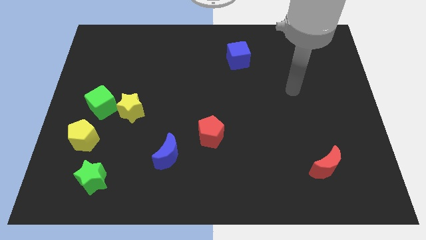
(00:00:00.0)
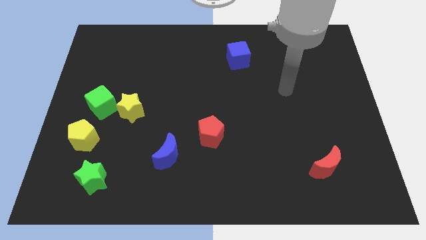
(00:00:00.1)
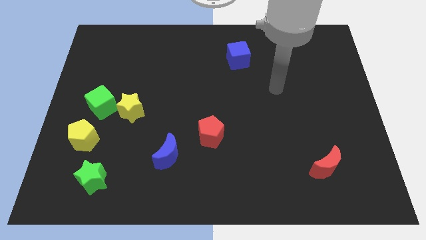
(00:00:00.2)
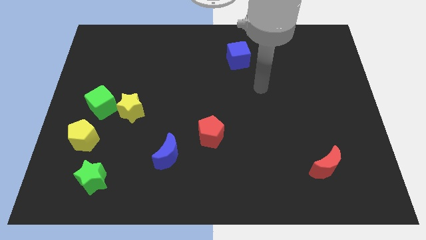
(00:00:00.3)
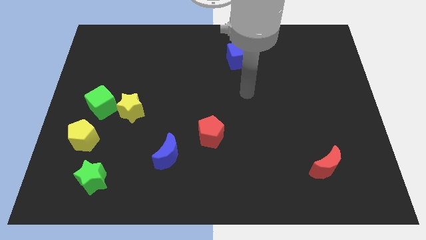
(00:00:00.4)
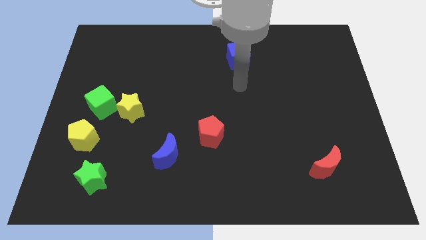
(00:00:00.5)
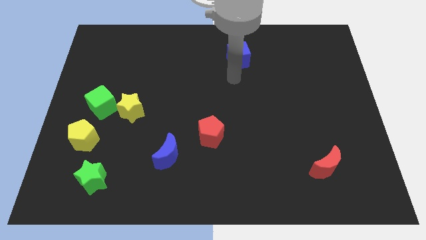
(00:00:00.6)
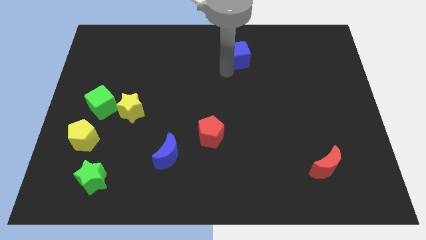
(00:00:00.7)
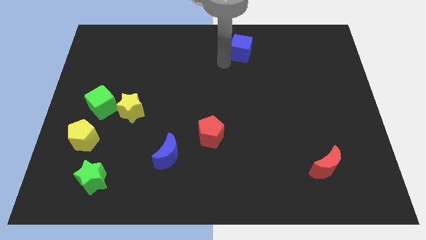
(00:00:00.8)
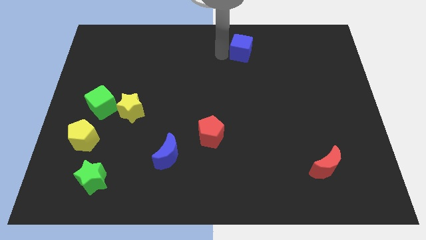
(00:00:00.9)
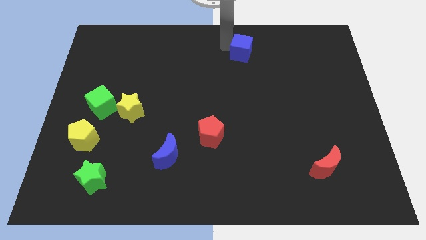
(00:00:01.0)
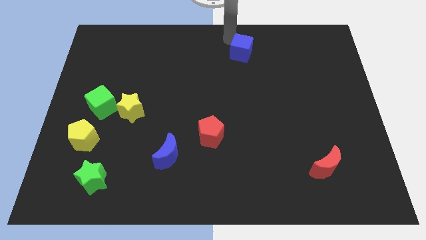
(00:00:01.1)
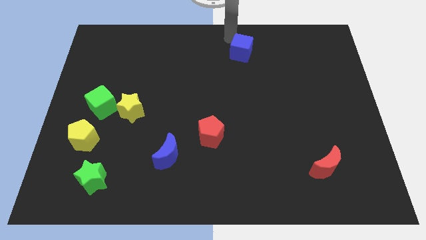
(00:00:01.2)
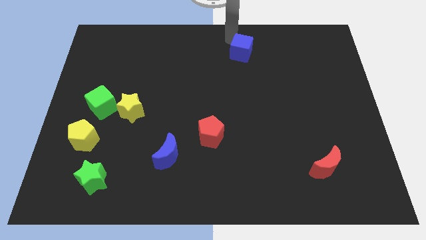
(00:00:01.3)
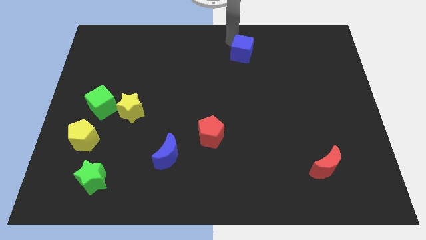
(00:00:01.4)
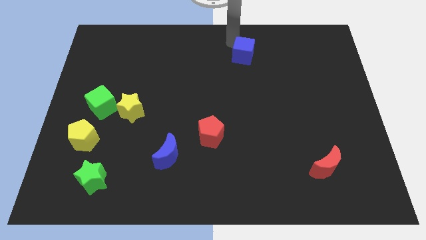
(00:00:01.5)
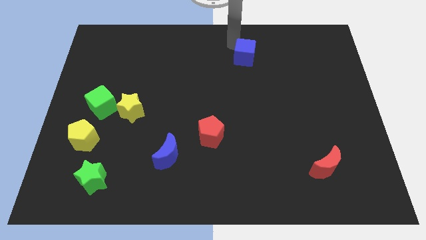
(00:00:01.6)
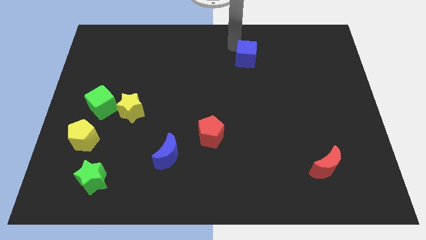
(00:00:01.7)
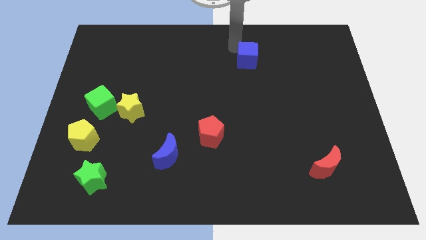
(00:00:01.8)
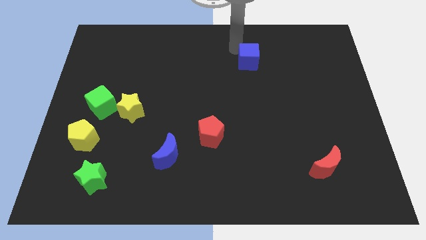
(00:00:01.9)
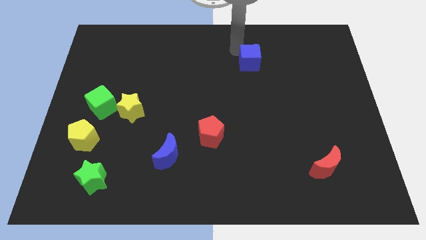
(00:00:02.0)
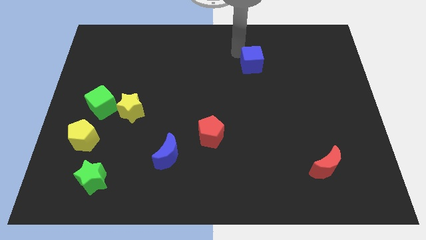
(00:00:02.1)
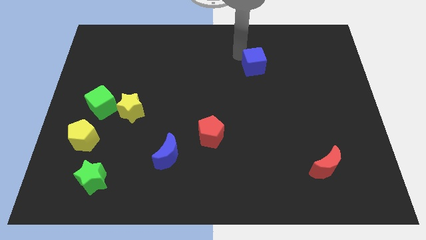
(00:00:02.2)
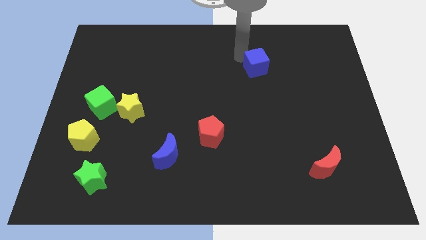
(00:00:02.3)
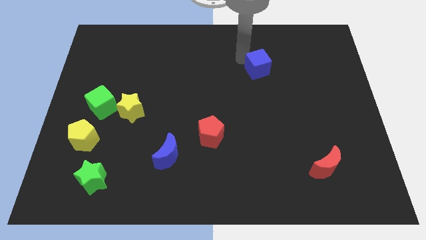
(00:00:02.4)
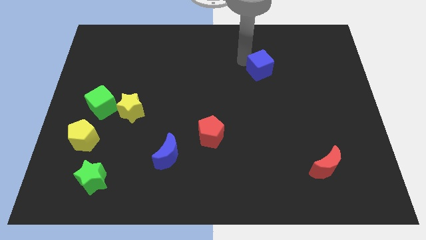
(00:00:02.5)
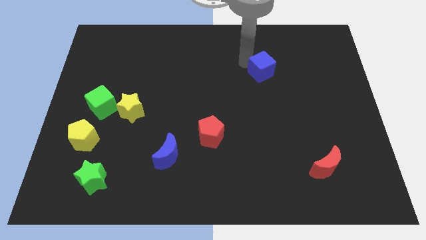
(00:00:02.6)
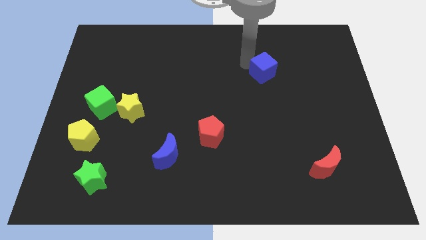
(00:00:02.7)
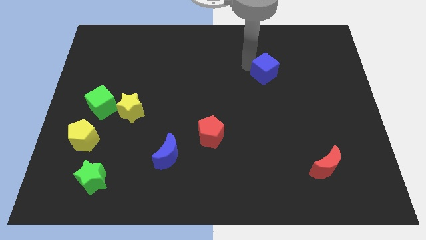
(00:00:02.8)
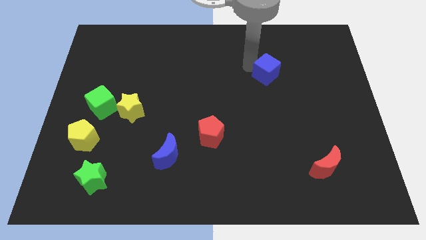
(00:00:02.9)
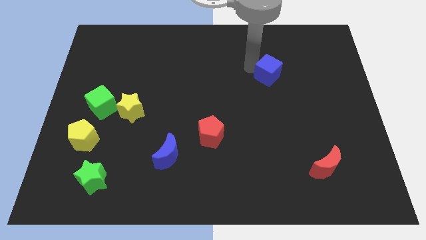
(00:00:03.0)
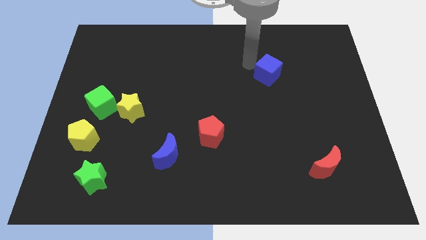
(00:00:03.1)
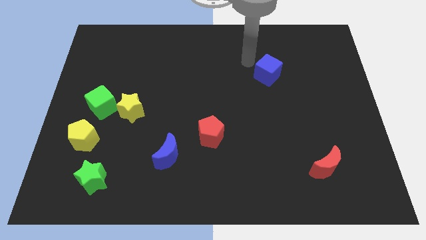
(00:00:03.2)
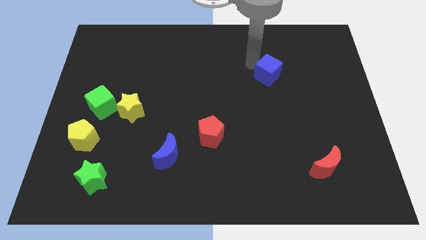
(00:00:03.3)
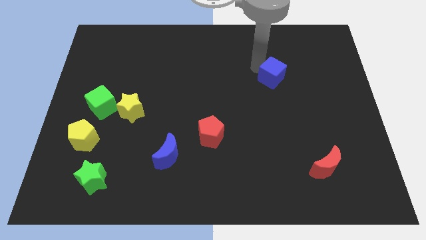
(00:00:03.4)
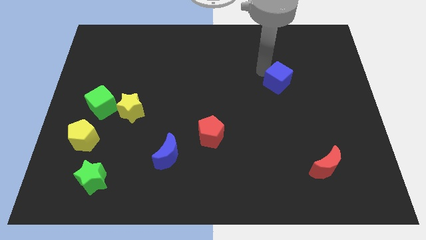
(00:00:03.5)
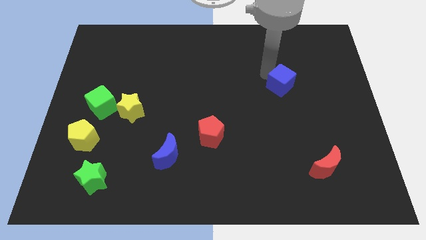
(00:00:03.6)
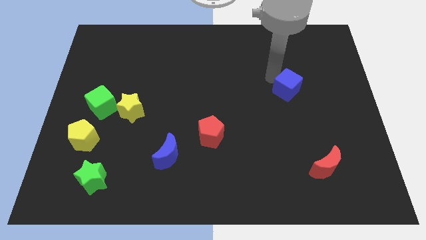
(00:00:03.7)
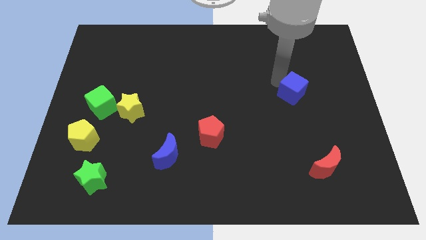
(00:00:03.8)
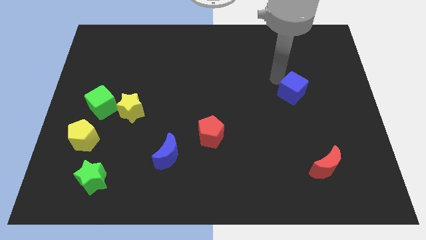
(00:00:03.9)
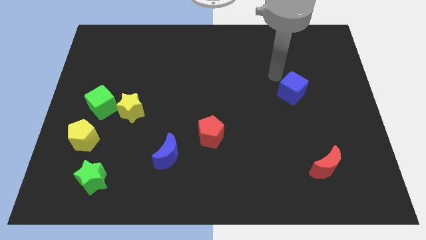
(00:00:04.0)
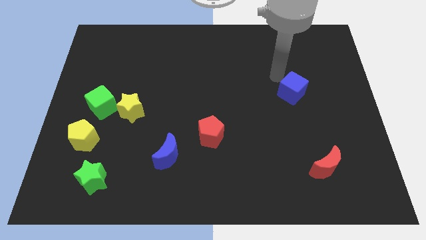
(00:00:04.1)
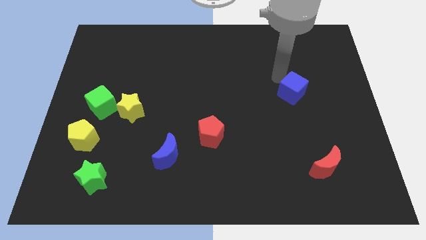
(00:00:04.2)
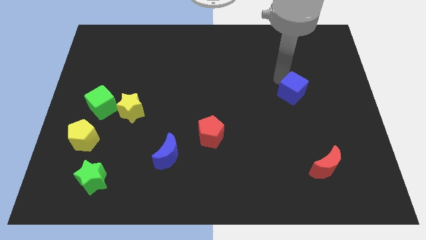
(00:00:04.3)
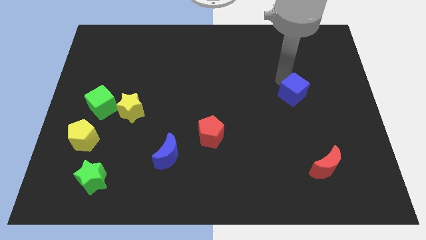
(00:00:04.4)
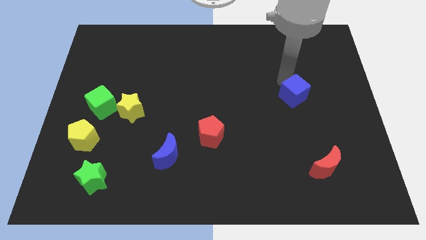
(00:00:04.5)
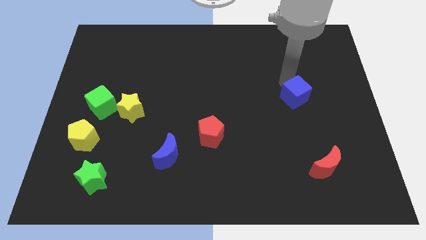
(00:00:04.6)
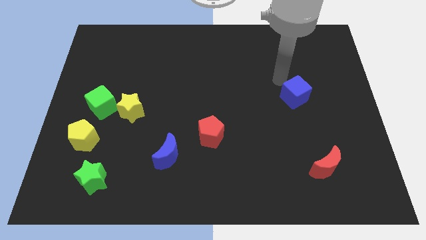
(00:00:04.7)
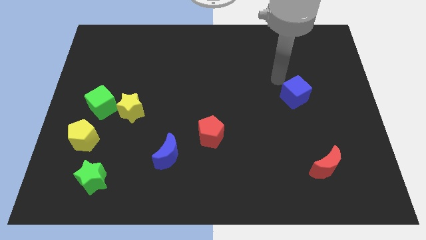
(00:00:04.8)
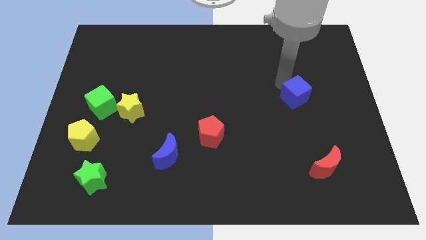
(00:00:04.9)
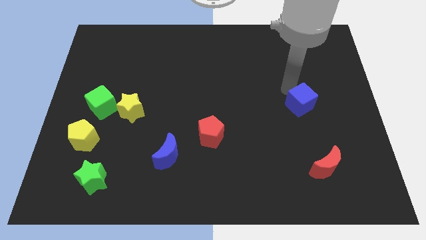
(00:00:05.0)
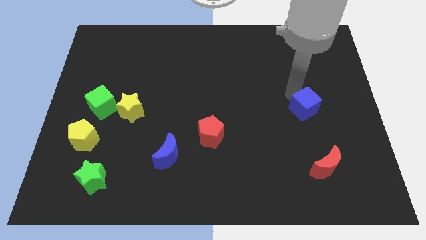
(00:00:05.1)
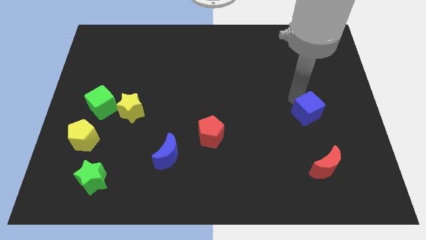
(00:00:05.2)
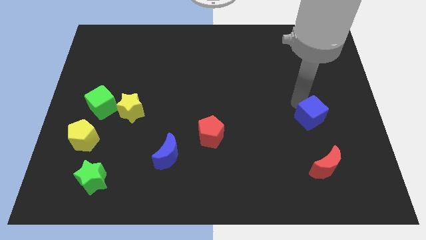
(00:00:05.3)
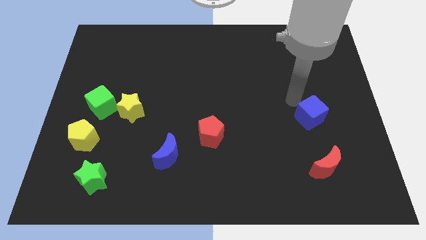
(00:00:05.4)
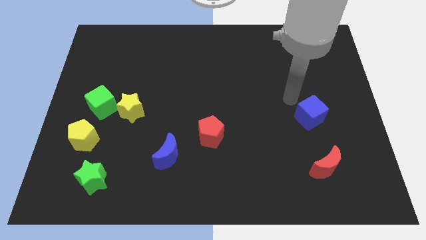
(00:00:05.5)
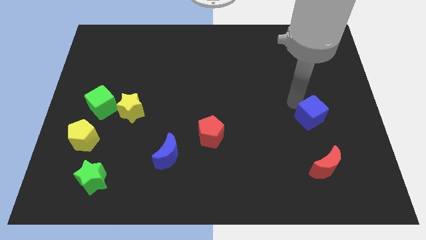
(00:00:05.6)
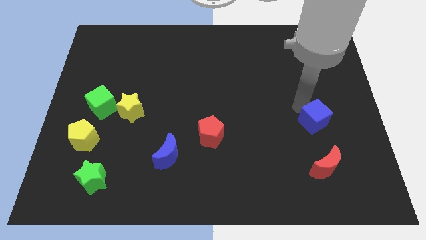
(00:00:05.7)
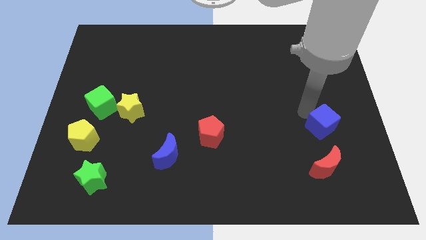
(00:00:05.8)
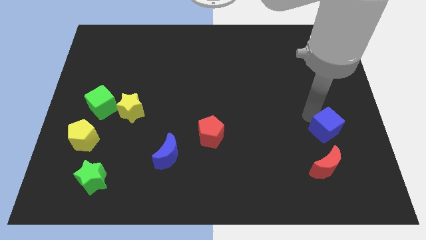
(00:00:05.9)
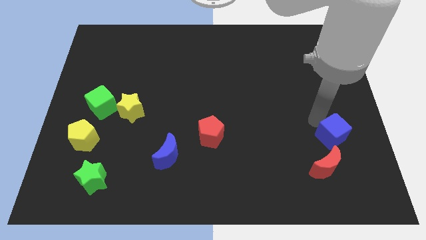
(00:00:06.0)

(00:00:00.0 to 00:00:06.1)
slide the blue cube diagonally up and to the right of the red moon

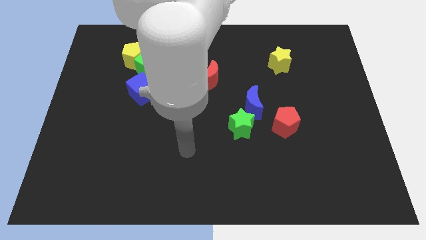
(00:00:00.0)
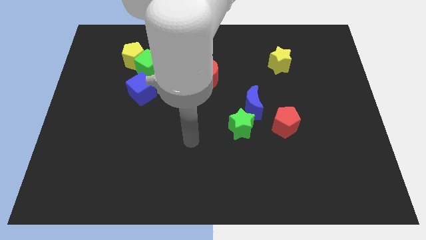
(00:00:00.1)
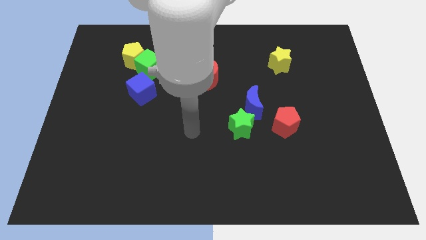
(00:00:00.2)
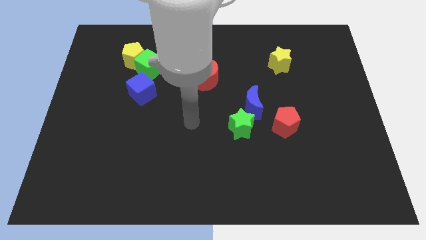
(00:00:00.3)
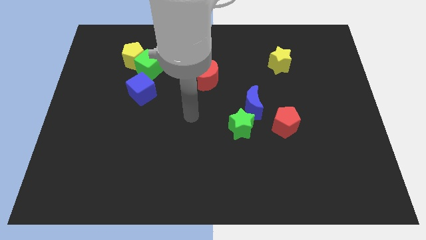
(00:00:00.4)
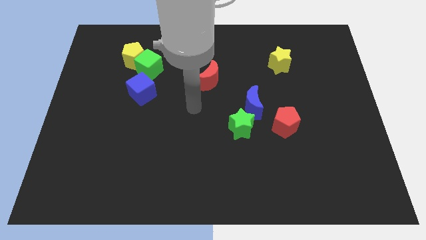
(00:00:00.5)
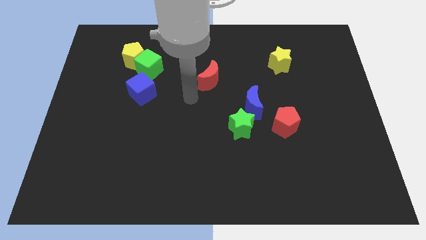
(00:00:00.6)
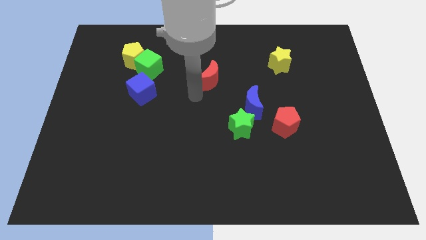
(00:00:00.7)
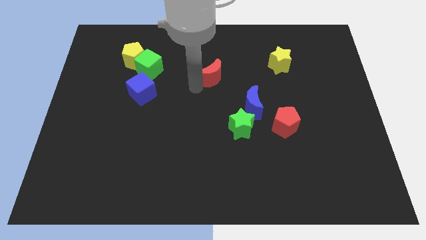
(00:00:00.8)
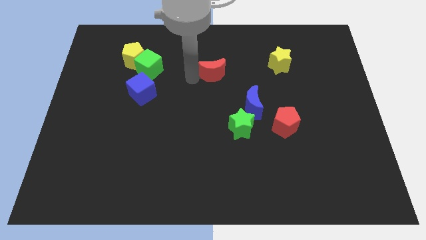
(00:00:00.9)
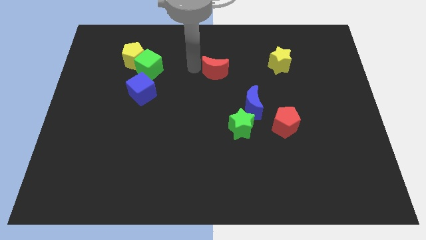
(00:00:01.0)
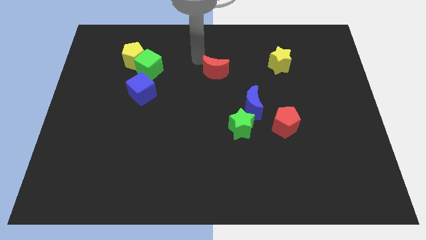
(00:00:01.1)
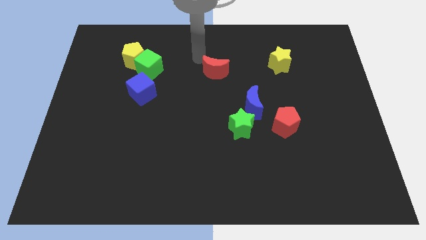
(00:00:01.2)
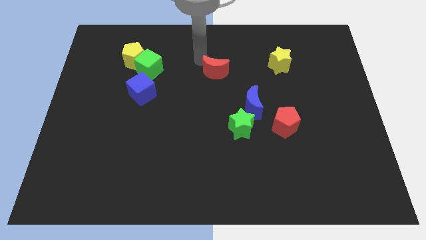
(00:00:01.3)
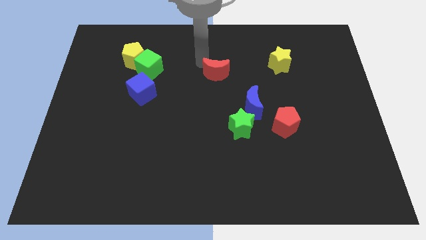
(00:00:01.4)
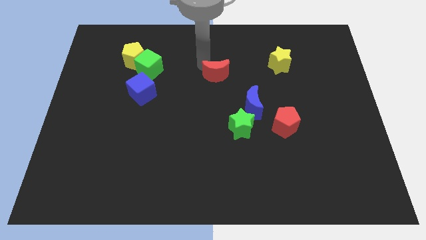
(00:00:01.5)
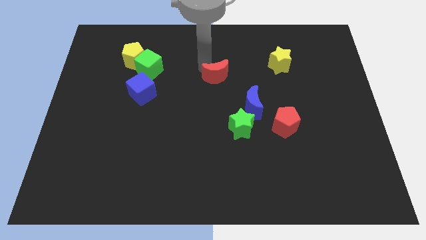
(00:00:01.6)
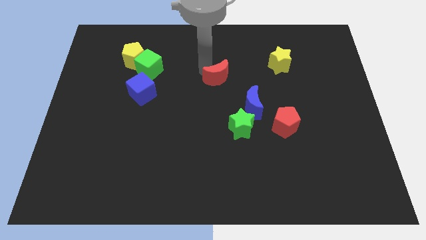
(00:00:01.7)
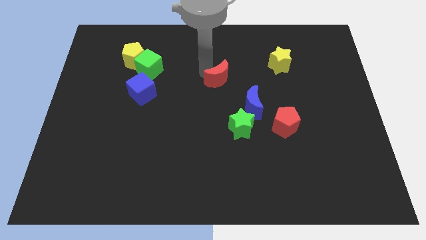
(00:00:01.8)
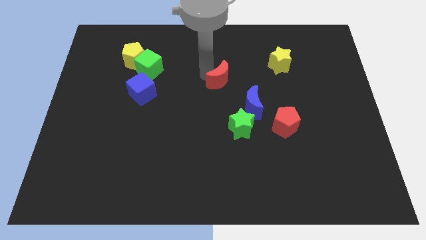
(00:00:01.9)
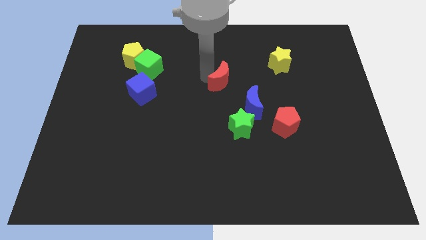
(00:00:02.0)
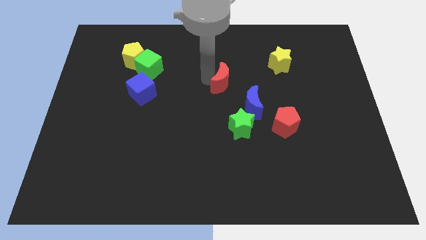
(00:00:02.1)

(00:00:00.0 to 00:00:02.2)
slide the red moon to the top of the green star
